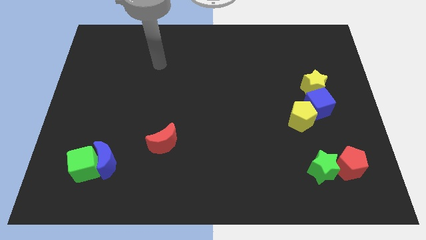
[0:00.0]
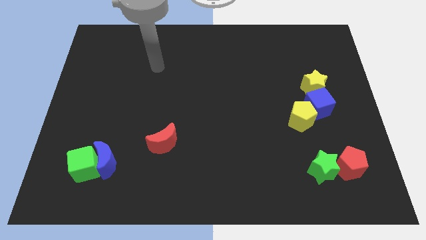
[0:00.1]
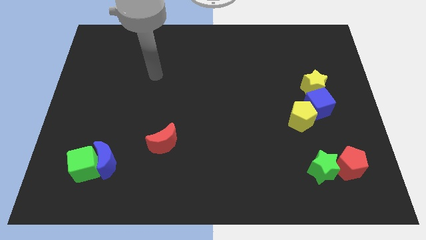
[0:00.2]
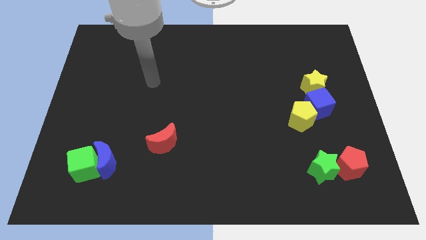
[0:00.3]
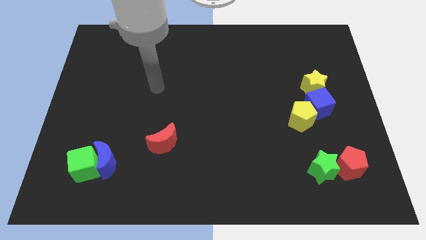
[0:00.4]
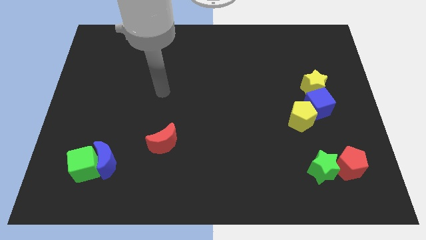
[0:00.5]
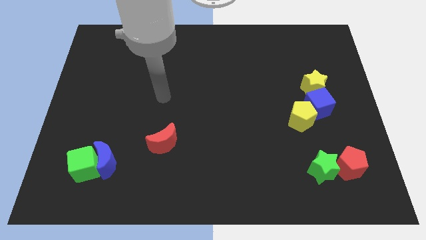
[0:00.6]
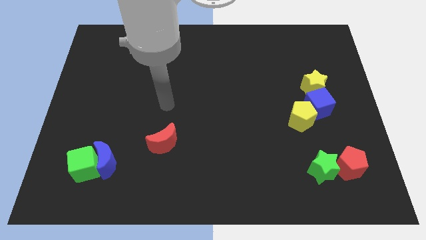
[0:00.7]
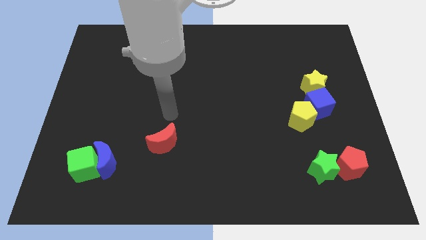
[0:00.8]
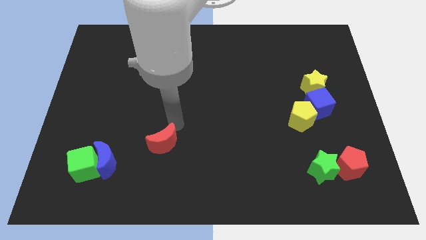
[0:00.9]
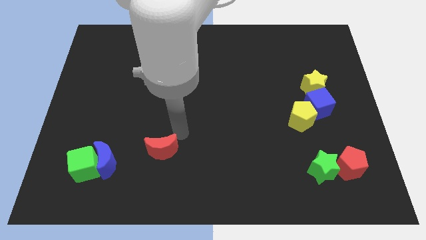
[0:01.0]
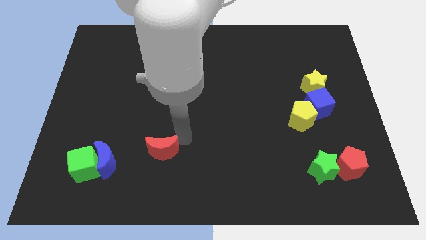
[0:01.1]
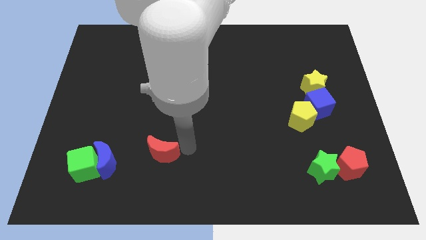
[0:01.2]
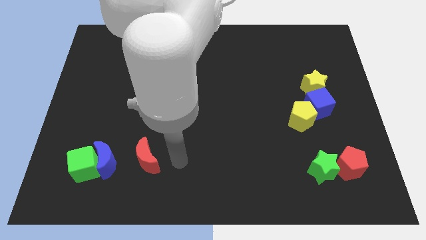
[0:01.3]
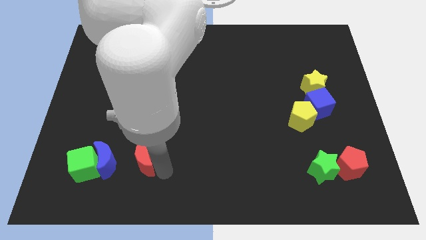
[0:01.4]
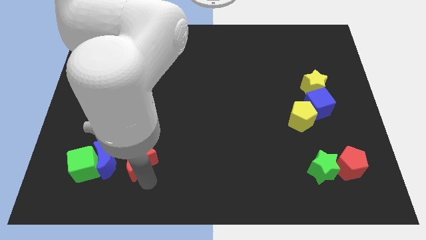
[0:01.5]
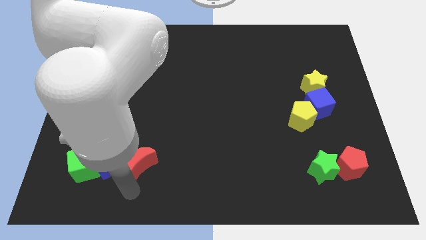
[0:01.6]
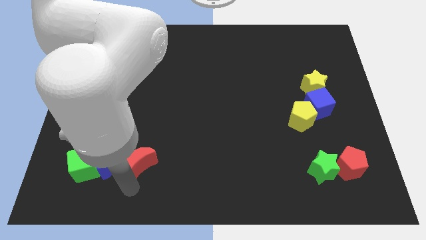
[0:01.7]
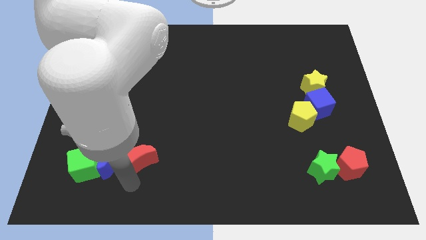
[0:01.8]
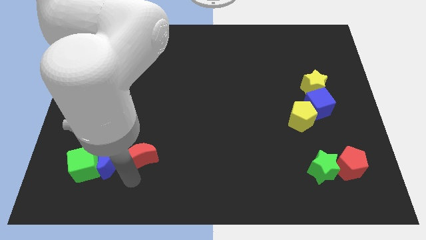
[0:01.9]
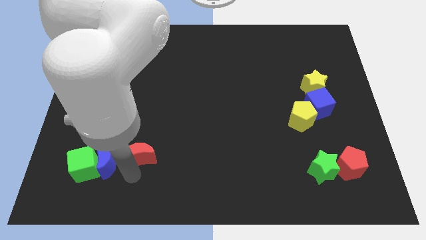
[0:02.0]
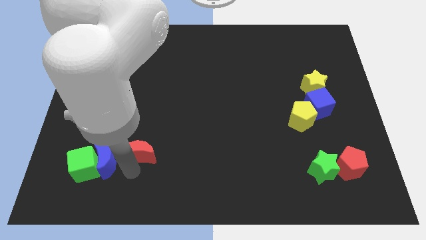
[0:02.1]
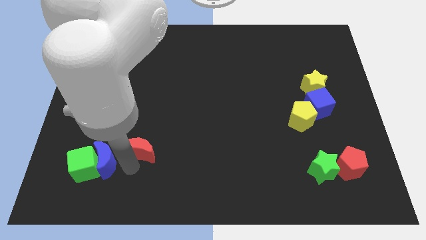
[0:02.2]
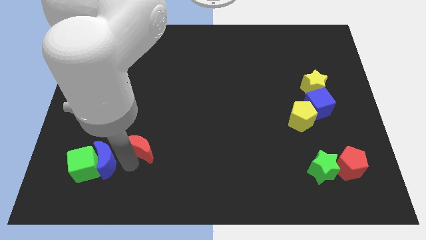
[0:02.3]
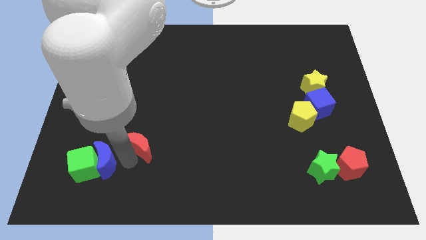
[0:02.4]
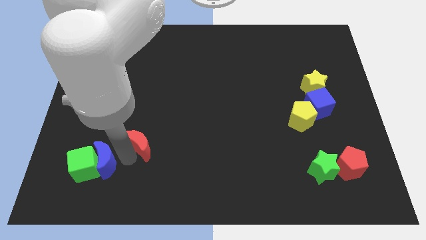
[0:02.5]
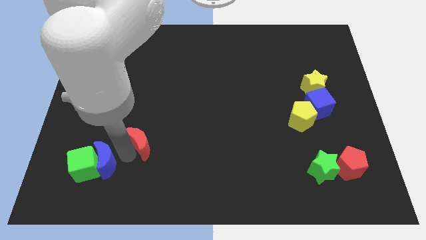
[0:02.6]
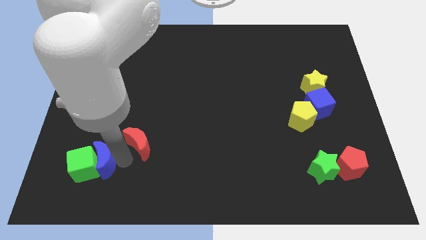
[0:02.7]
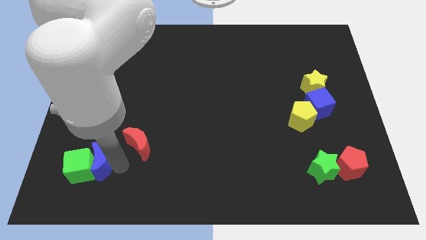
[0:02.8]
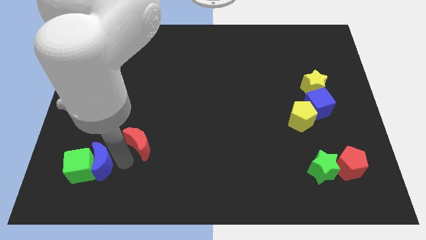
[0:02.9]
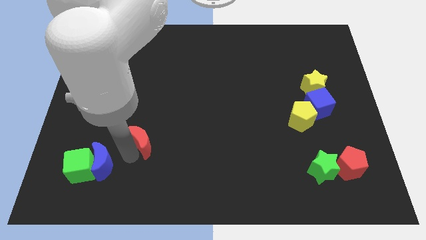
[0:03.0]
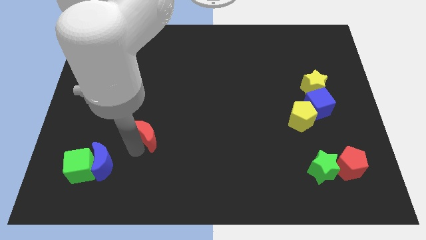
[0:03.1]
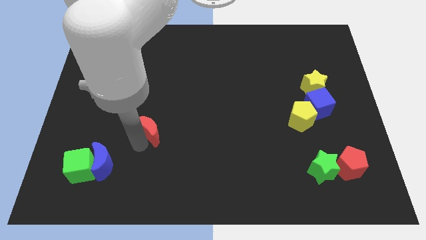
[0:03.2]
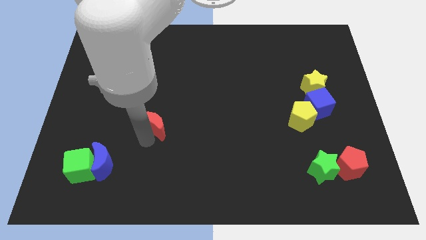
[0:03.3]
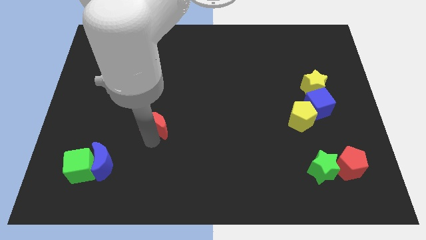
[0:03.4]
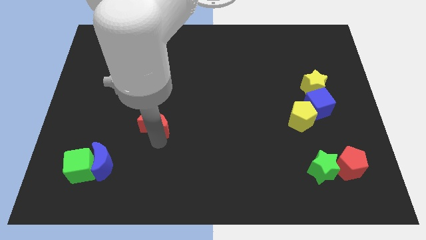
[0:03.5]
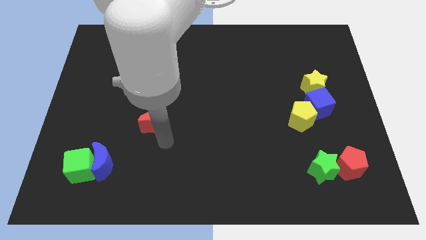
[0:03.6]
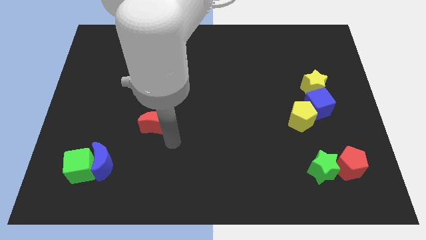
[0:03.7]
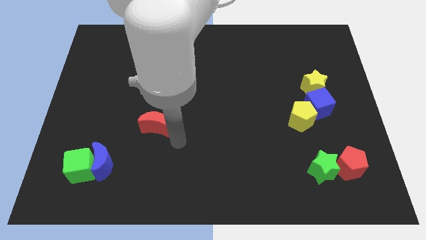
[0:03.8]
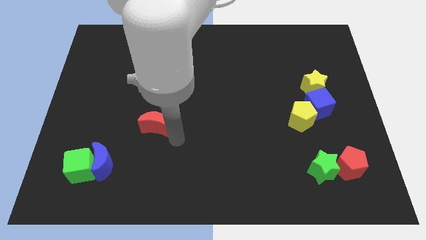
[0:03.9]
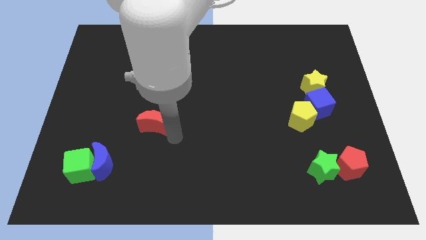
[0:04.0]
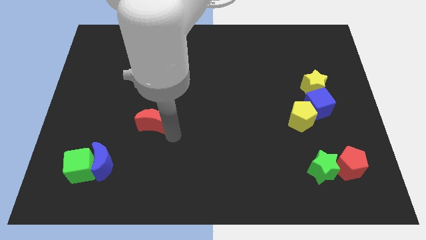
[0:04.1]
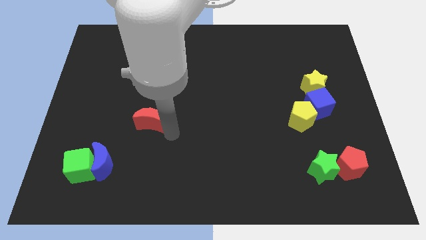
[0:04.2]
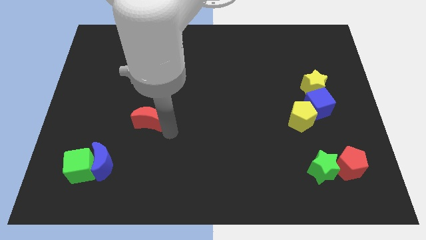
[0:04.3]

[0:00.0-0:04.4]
slightly move the red moon up and left

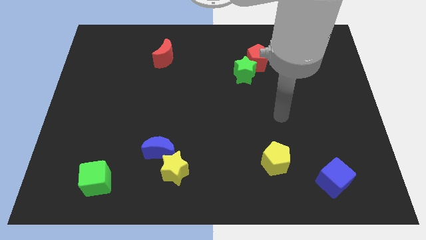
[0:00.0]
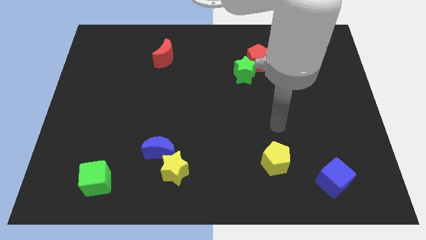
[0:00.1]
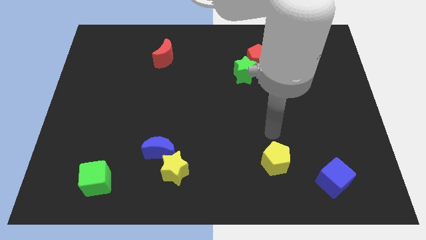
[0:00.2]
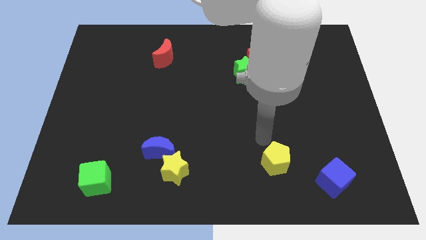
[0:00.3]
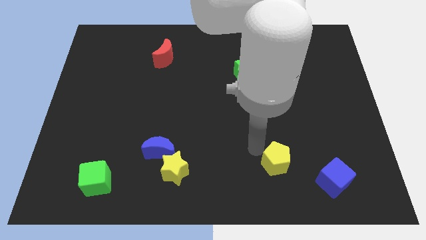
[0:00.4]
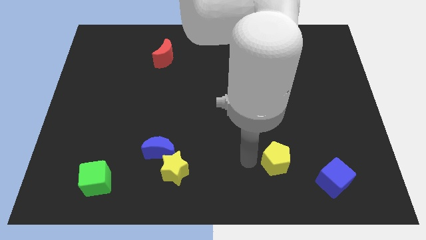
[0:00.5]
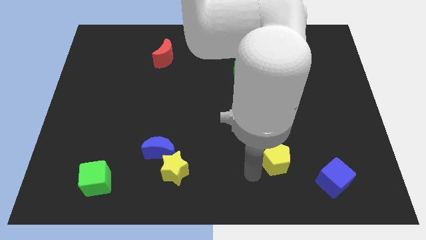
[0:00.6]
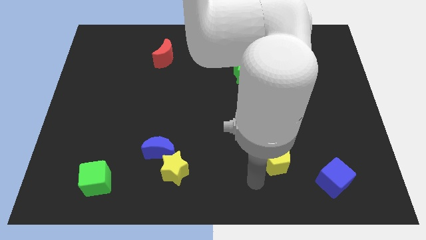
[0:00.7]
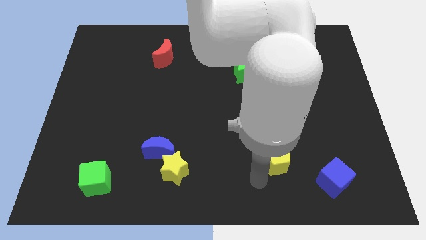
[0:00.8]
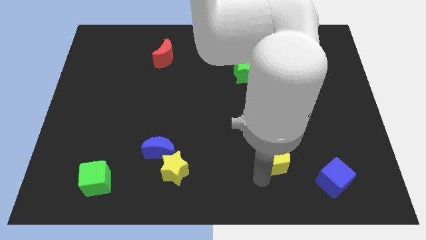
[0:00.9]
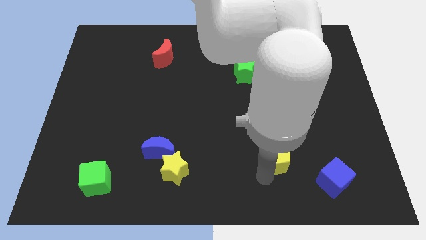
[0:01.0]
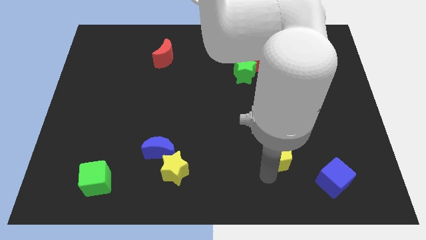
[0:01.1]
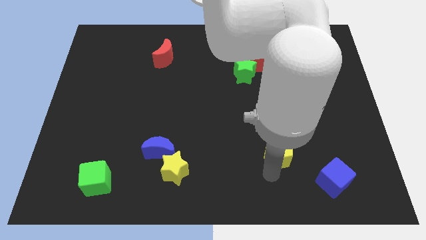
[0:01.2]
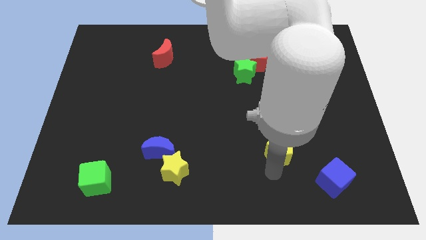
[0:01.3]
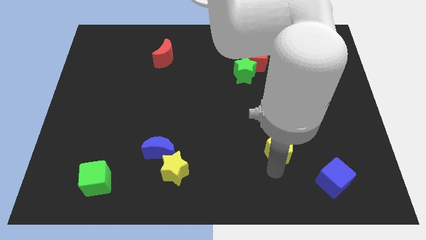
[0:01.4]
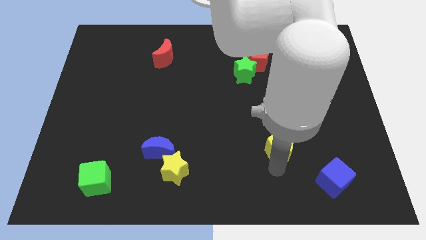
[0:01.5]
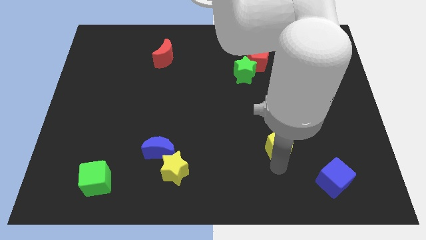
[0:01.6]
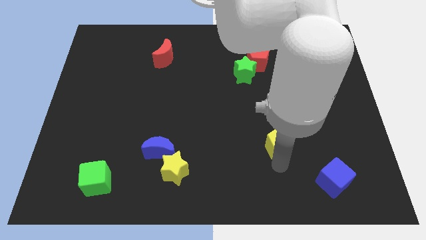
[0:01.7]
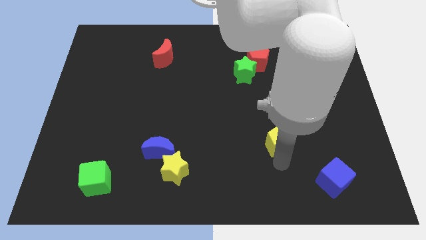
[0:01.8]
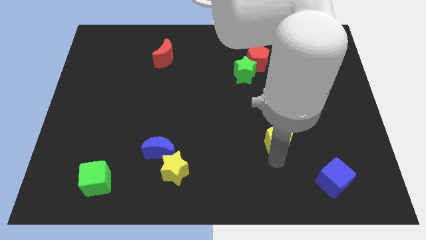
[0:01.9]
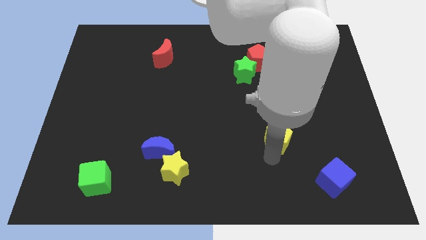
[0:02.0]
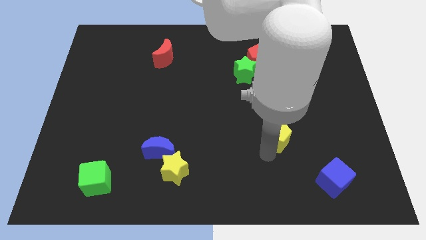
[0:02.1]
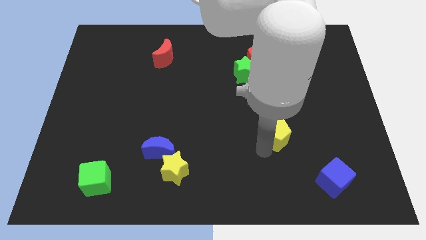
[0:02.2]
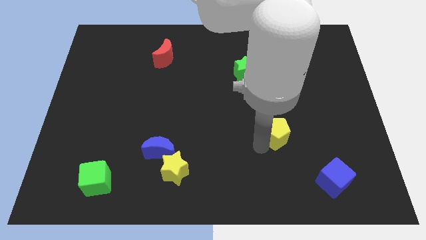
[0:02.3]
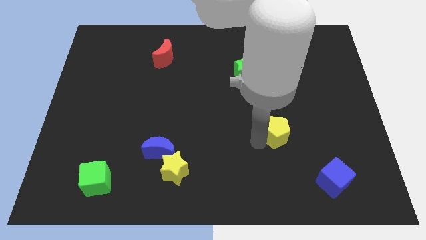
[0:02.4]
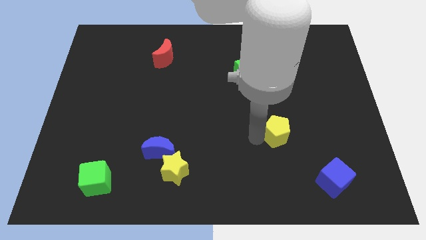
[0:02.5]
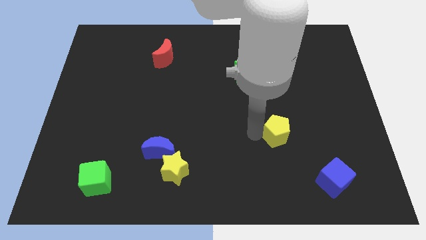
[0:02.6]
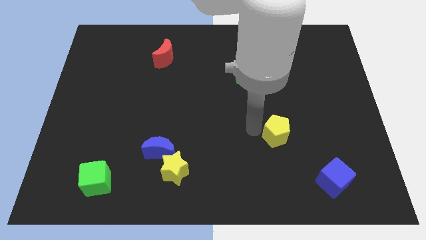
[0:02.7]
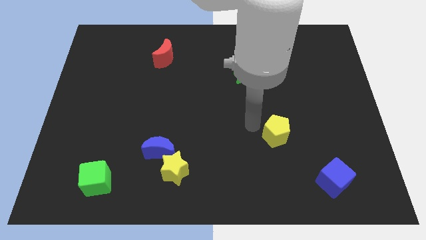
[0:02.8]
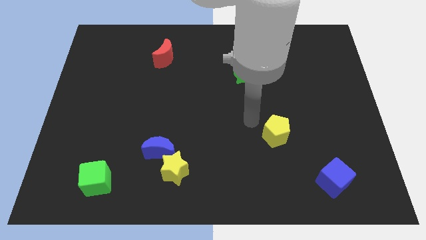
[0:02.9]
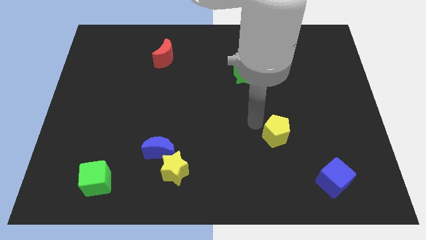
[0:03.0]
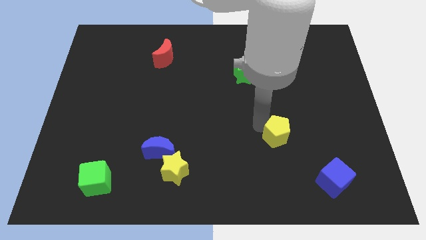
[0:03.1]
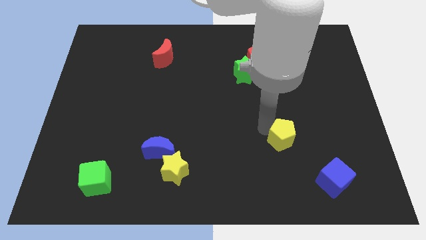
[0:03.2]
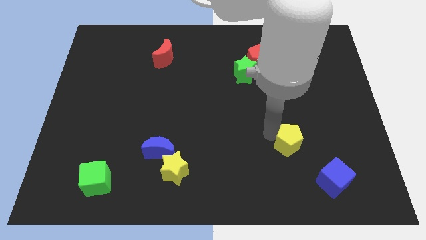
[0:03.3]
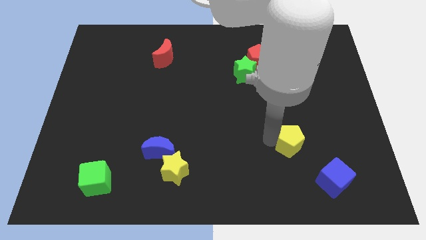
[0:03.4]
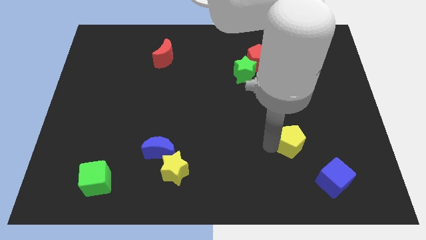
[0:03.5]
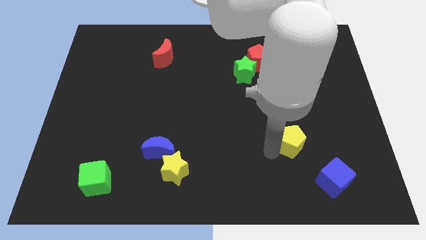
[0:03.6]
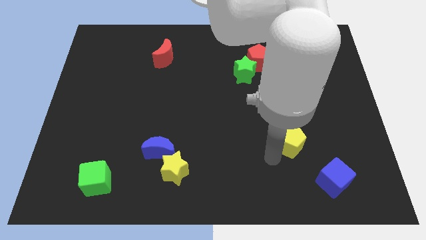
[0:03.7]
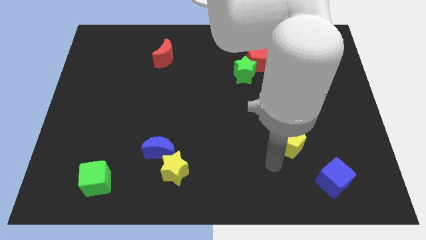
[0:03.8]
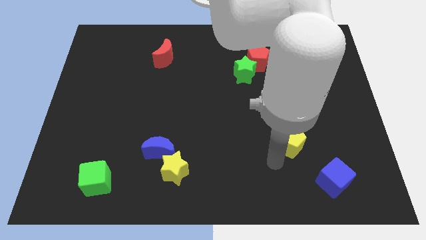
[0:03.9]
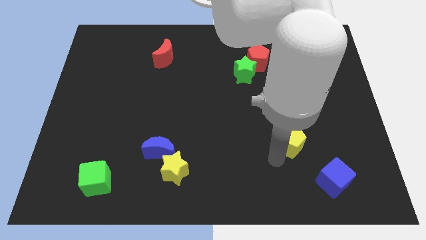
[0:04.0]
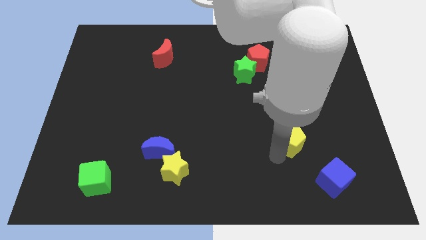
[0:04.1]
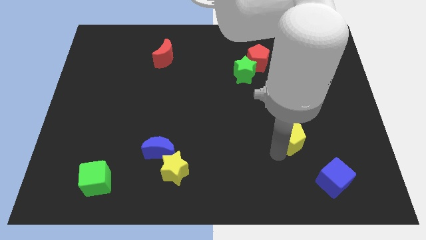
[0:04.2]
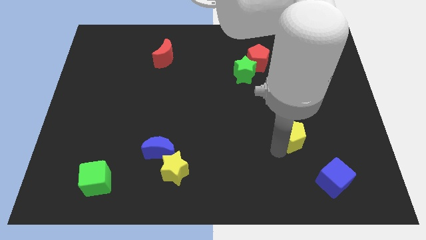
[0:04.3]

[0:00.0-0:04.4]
push the yellow pentagon diagonally up and to the right slightly
